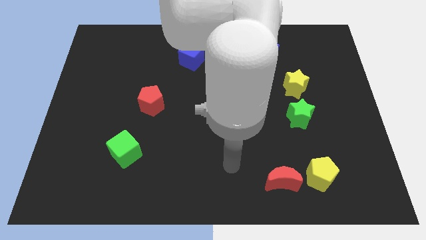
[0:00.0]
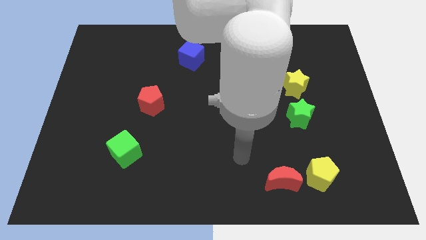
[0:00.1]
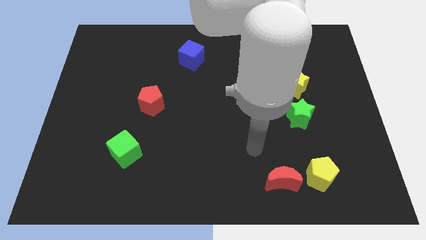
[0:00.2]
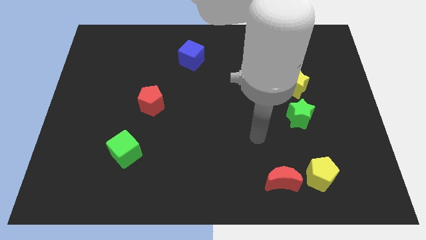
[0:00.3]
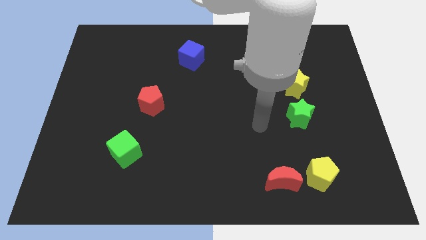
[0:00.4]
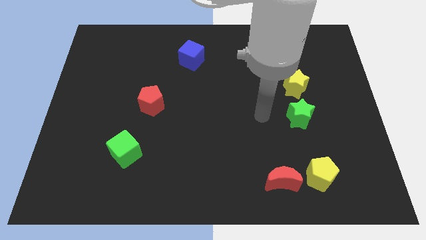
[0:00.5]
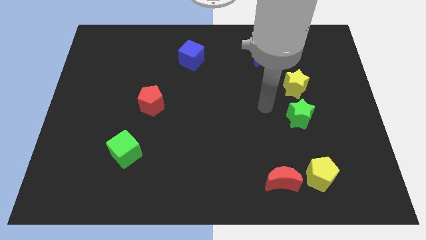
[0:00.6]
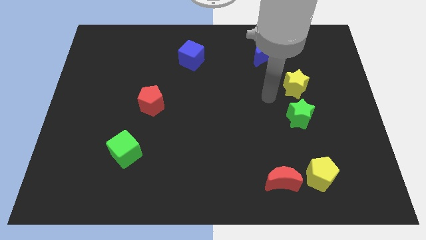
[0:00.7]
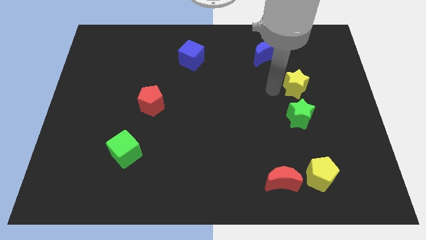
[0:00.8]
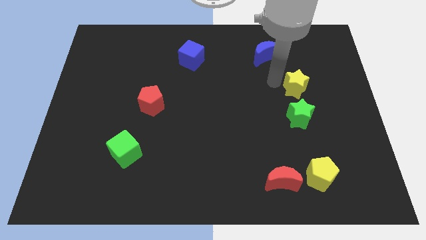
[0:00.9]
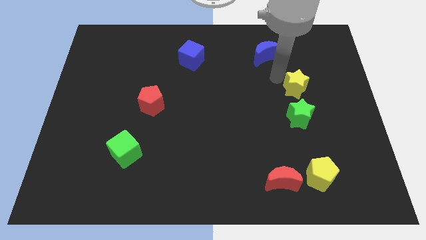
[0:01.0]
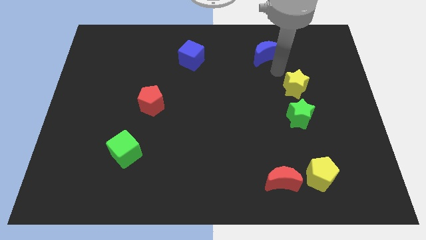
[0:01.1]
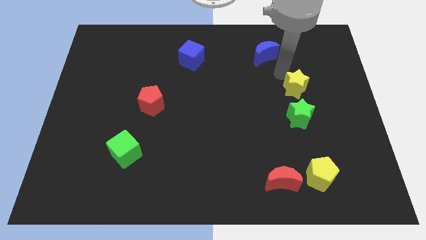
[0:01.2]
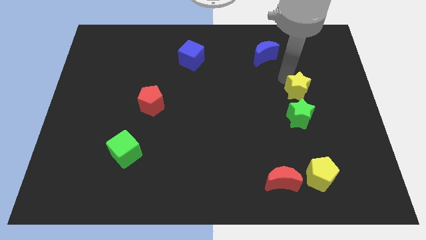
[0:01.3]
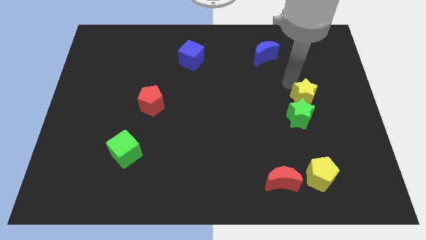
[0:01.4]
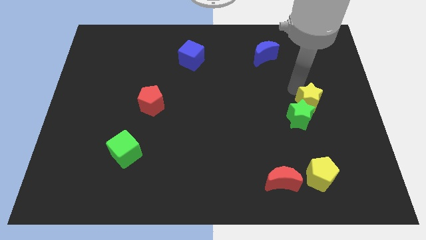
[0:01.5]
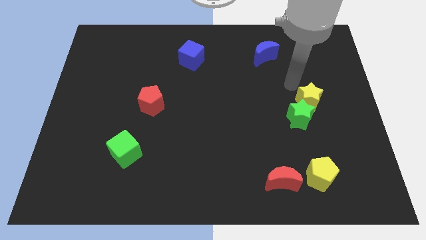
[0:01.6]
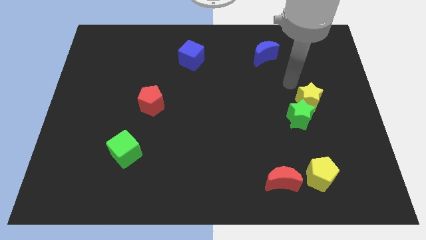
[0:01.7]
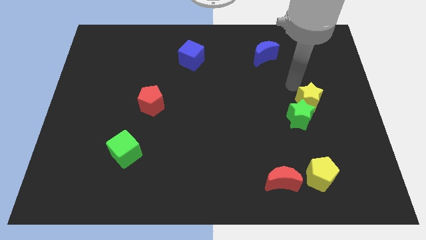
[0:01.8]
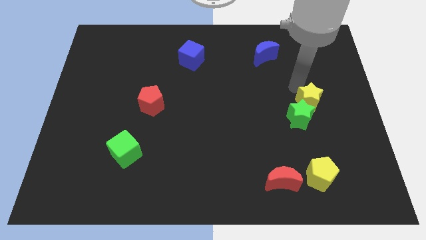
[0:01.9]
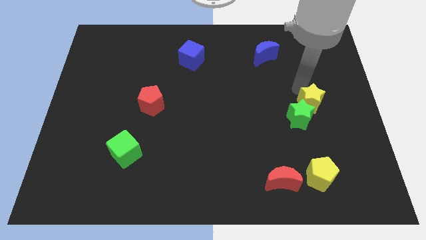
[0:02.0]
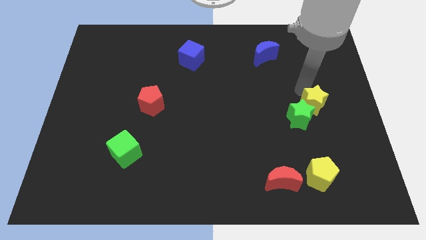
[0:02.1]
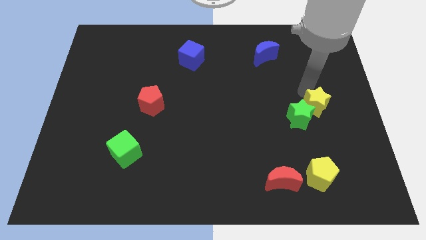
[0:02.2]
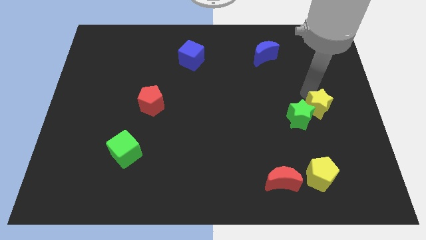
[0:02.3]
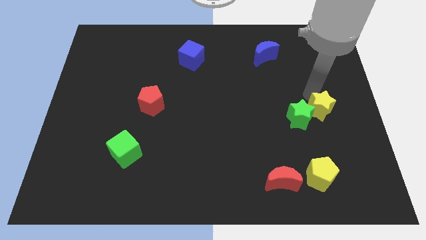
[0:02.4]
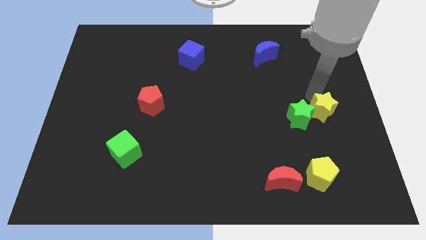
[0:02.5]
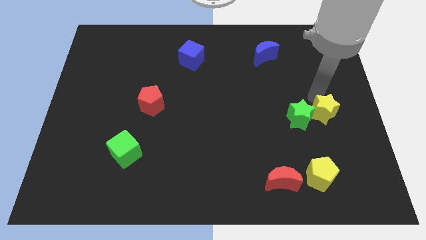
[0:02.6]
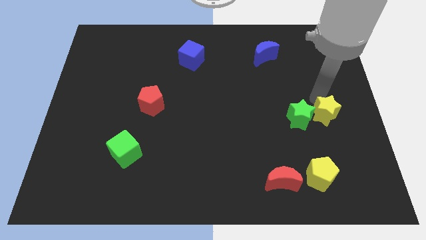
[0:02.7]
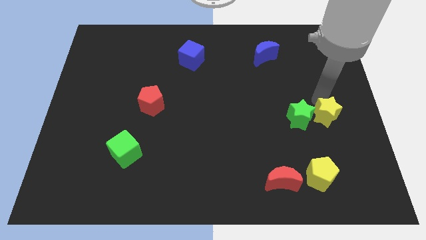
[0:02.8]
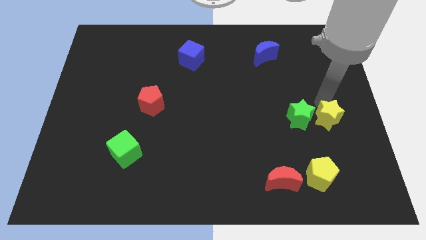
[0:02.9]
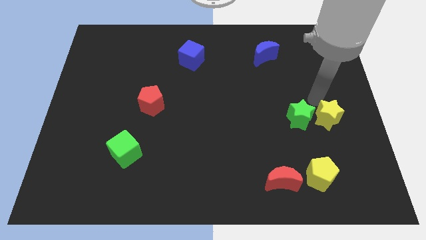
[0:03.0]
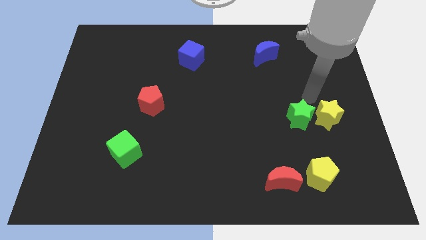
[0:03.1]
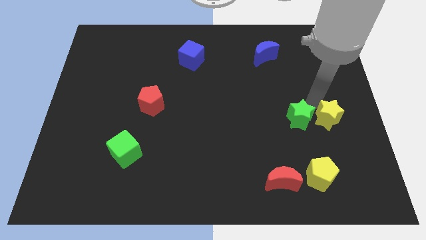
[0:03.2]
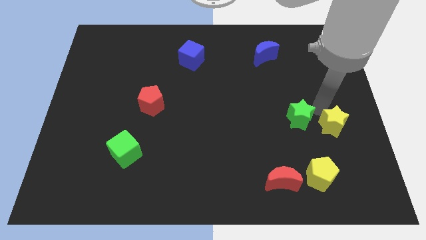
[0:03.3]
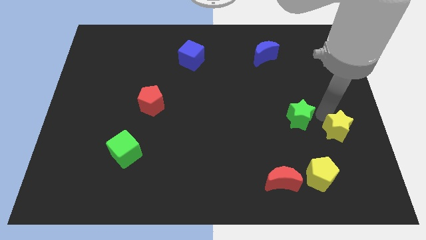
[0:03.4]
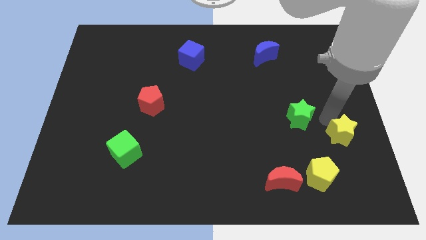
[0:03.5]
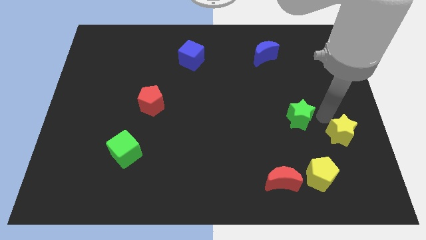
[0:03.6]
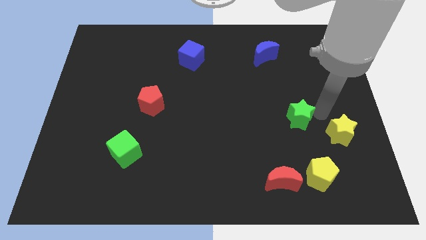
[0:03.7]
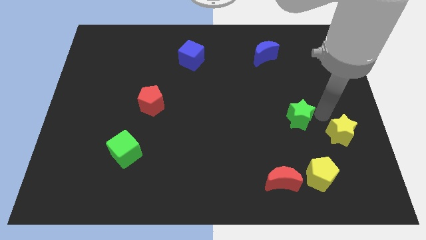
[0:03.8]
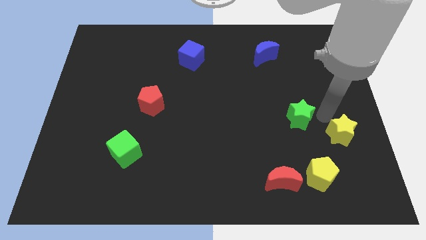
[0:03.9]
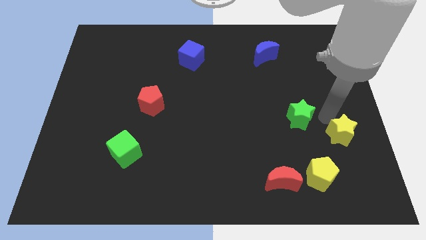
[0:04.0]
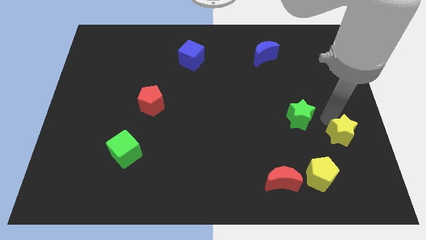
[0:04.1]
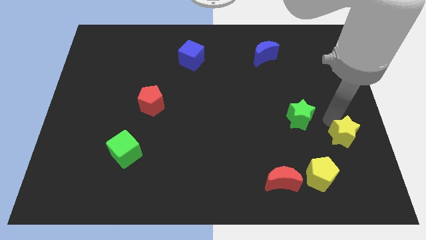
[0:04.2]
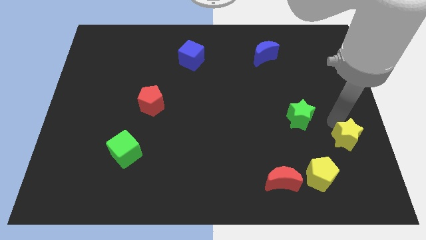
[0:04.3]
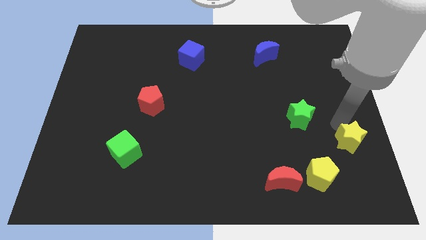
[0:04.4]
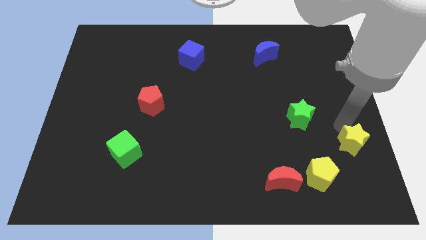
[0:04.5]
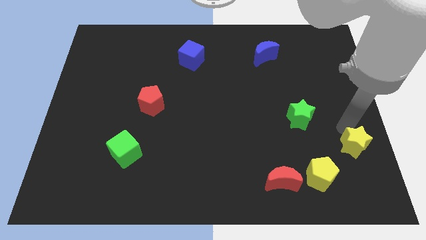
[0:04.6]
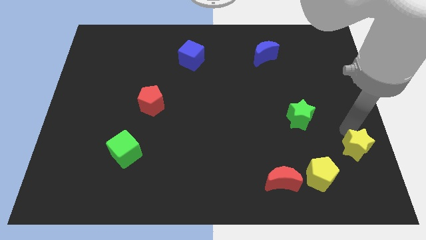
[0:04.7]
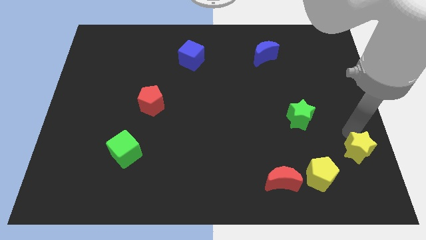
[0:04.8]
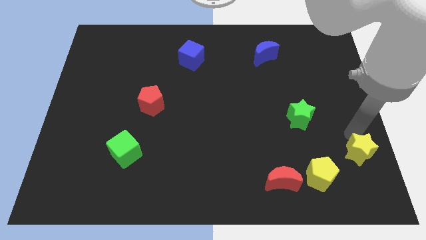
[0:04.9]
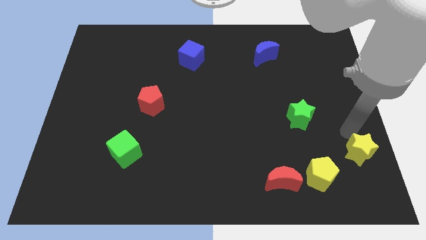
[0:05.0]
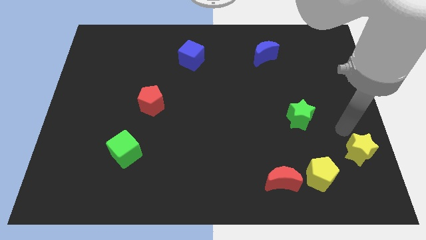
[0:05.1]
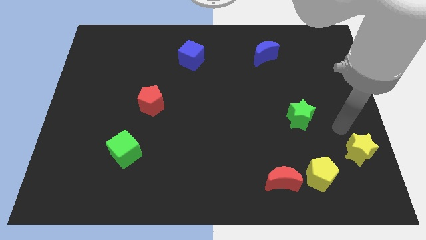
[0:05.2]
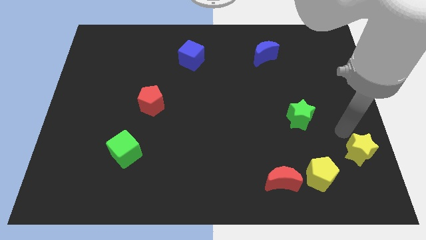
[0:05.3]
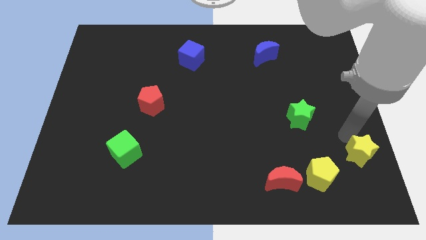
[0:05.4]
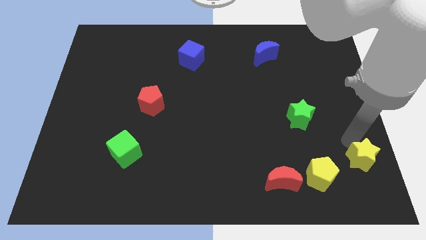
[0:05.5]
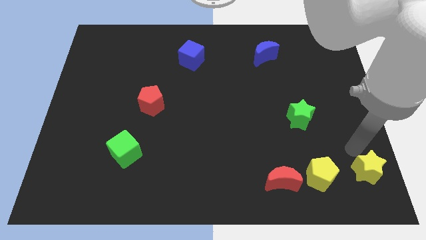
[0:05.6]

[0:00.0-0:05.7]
move the yellow star to the lower right corner

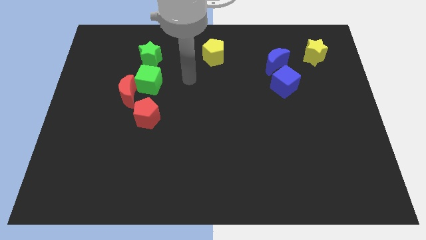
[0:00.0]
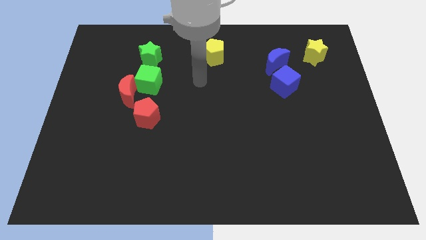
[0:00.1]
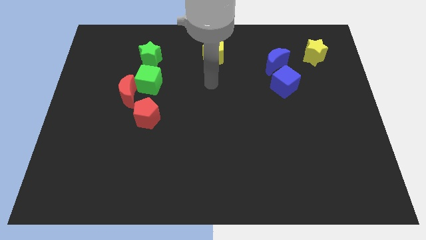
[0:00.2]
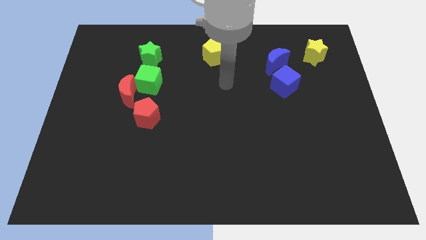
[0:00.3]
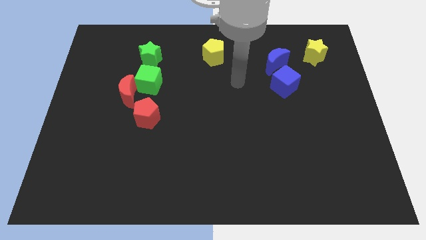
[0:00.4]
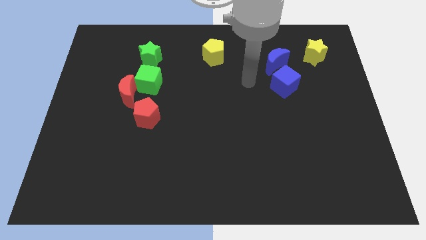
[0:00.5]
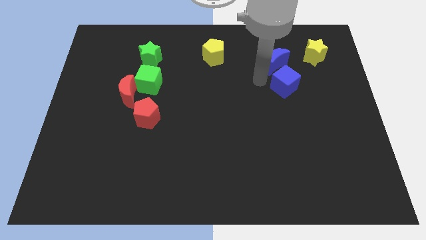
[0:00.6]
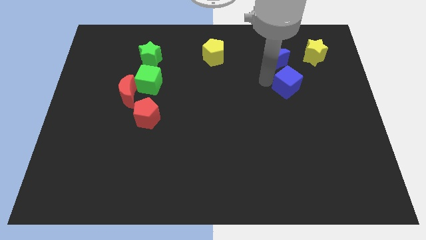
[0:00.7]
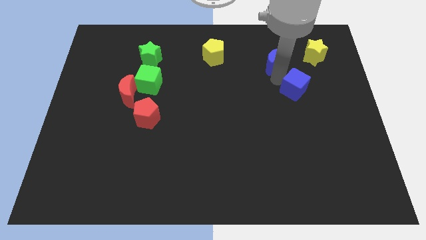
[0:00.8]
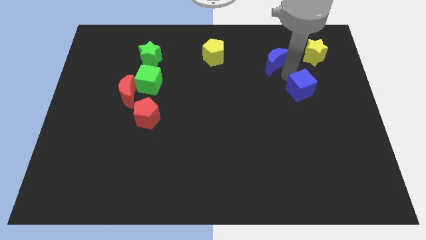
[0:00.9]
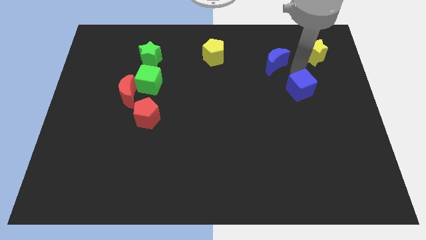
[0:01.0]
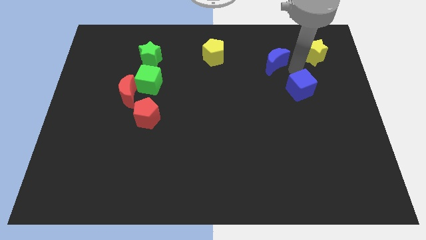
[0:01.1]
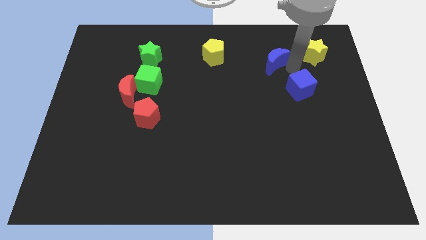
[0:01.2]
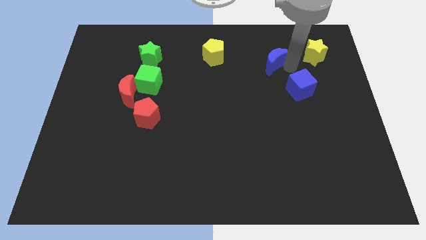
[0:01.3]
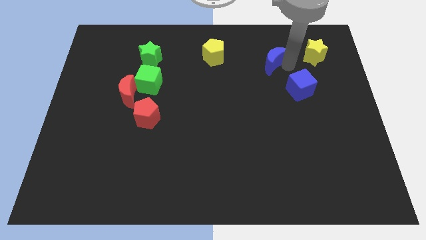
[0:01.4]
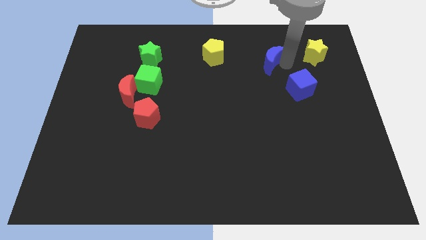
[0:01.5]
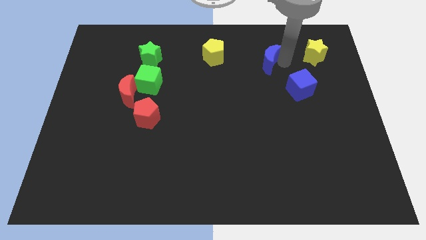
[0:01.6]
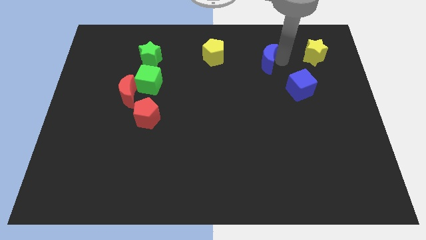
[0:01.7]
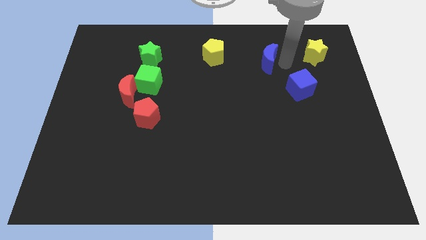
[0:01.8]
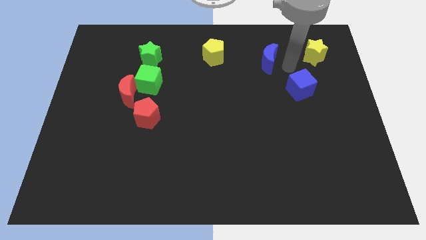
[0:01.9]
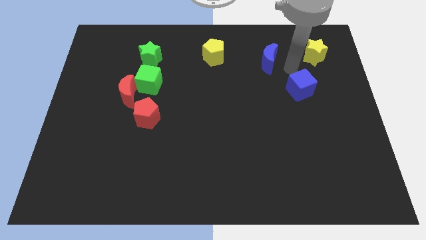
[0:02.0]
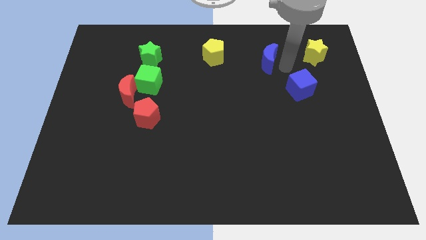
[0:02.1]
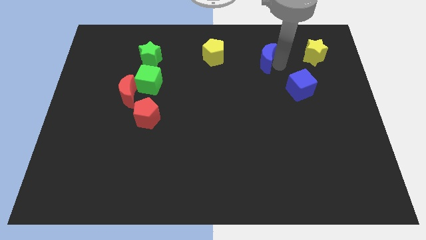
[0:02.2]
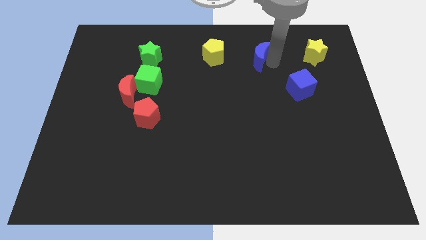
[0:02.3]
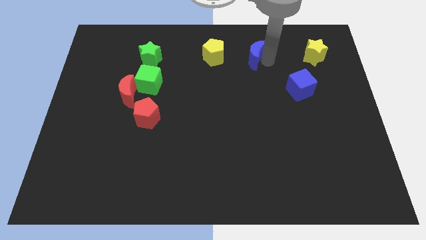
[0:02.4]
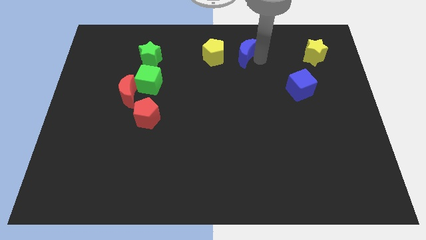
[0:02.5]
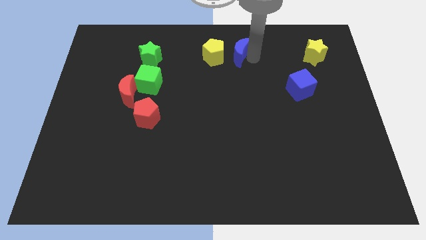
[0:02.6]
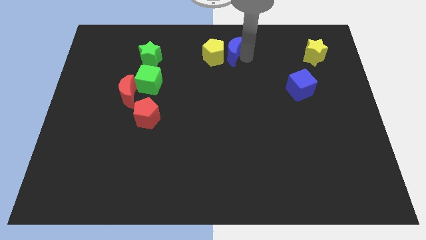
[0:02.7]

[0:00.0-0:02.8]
slide the blue moon to the top
